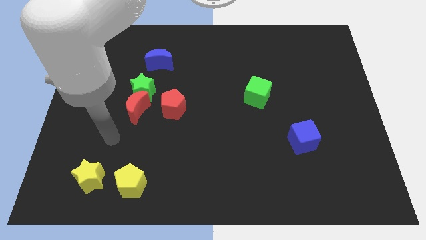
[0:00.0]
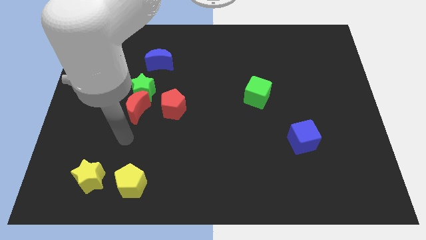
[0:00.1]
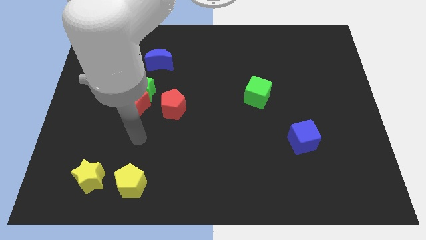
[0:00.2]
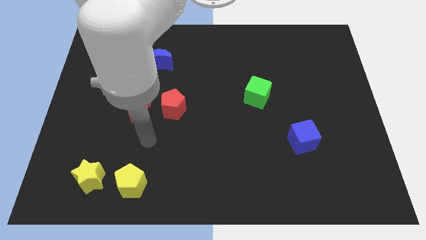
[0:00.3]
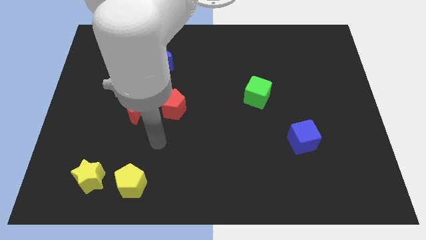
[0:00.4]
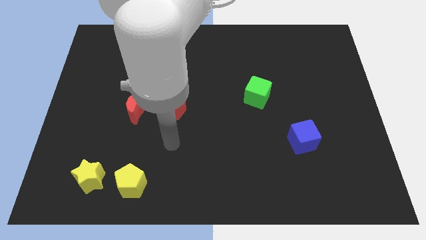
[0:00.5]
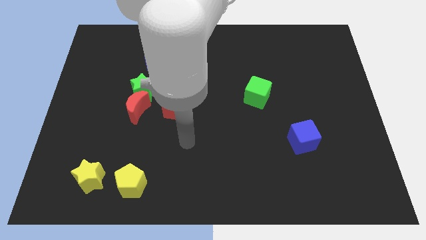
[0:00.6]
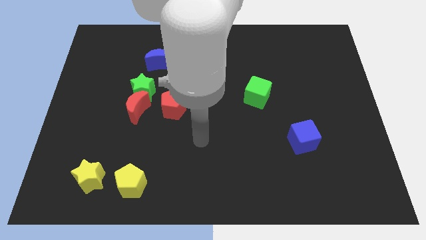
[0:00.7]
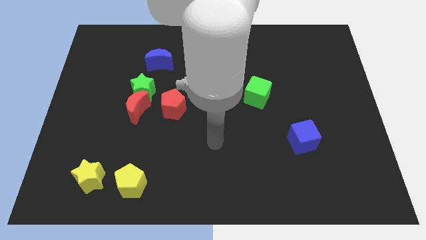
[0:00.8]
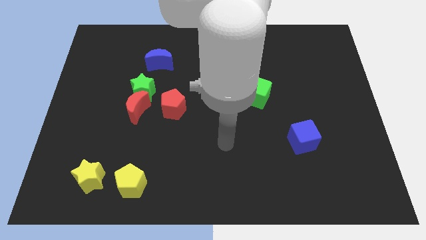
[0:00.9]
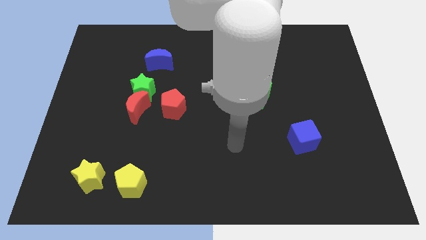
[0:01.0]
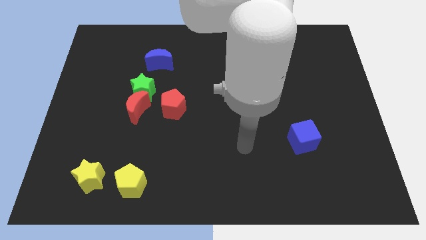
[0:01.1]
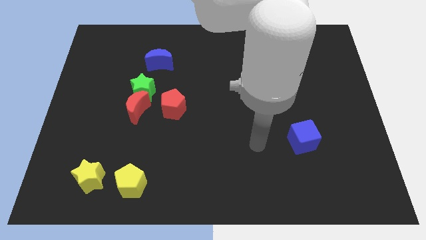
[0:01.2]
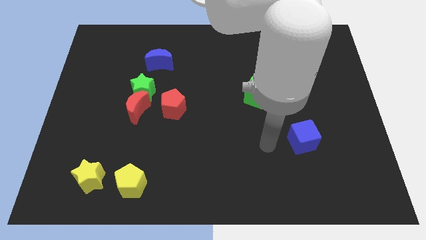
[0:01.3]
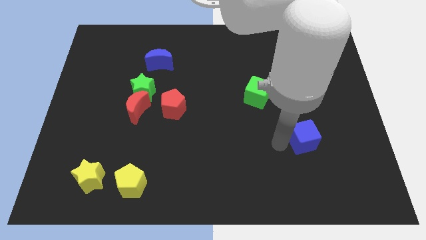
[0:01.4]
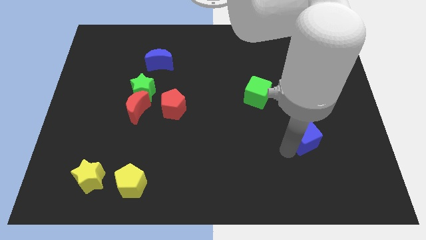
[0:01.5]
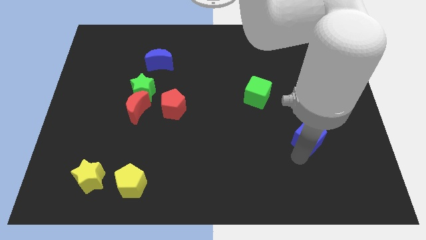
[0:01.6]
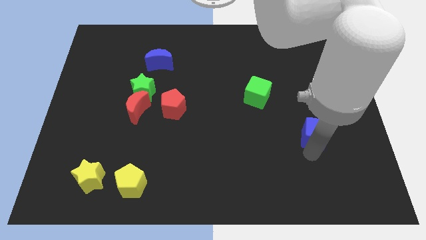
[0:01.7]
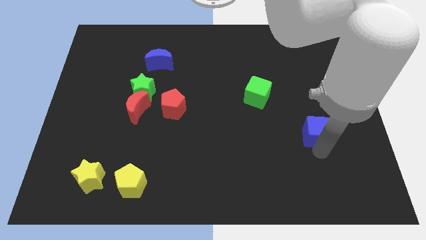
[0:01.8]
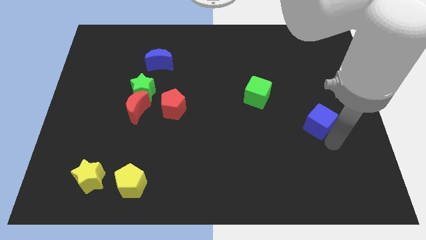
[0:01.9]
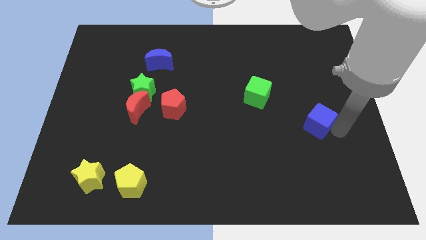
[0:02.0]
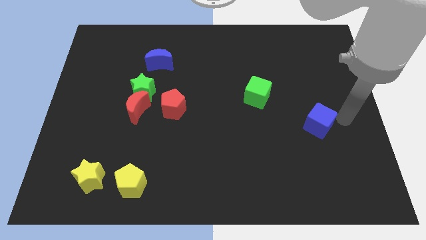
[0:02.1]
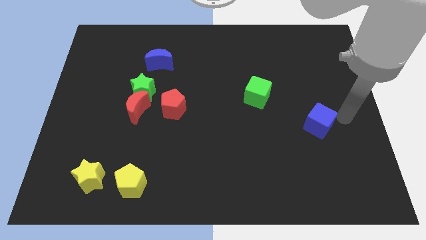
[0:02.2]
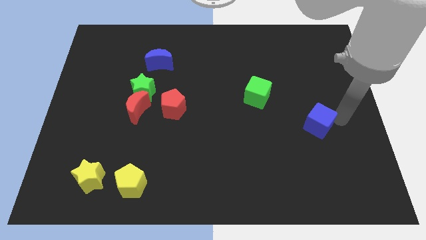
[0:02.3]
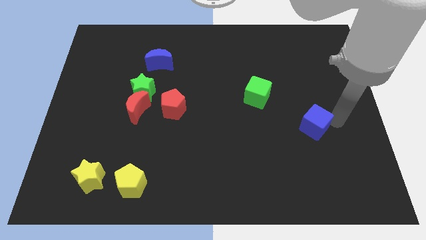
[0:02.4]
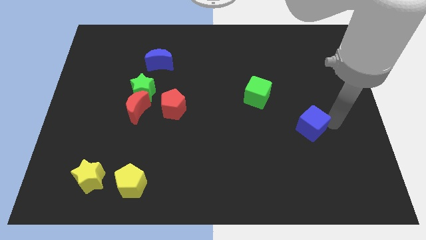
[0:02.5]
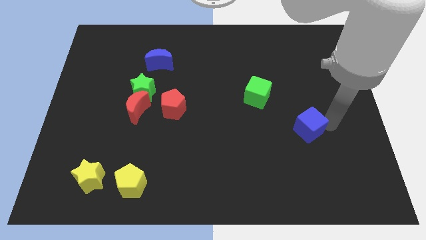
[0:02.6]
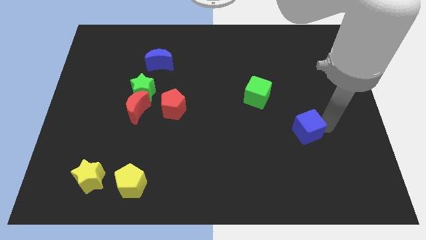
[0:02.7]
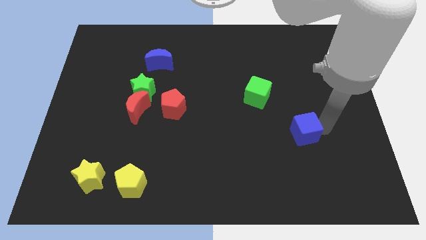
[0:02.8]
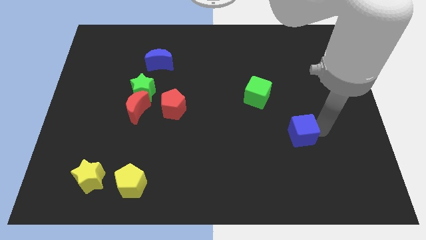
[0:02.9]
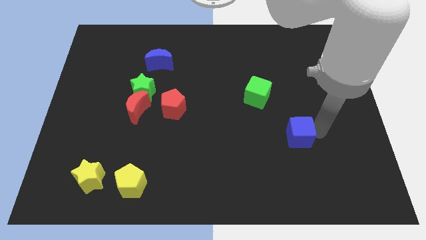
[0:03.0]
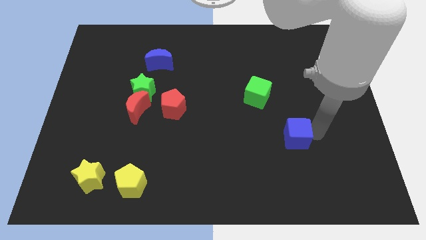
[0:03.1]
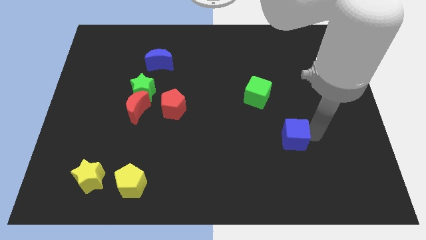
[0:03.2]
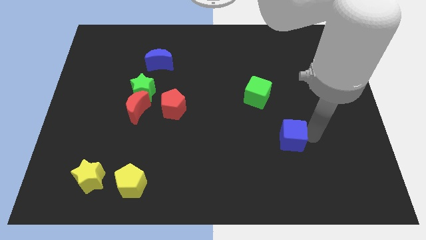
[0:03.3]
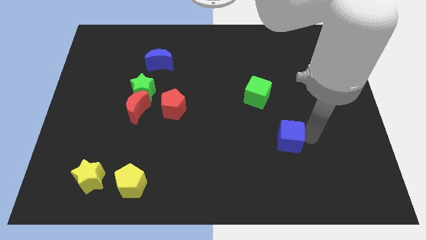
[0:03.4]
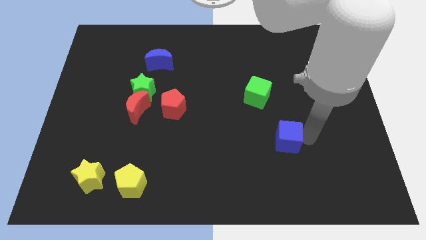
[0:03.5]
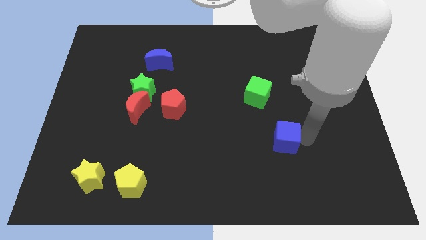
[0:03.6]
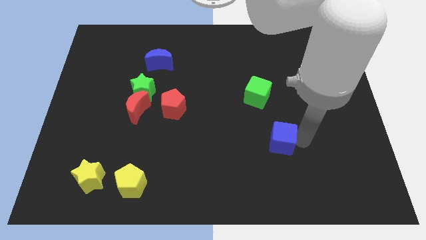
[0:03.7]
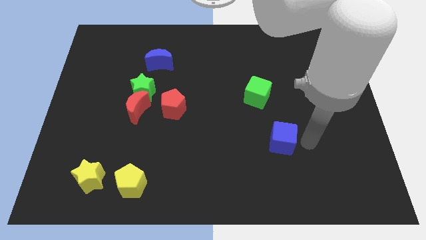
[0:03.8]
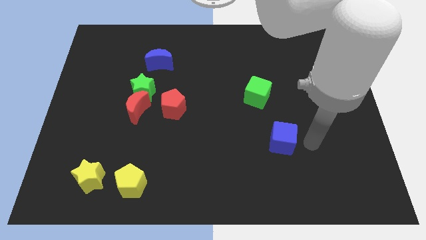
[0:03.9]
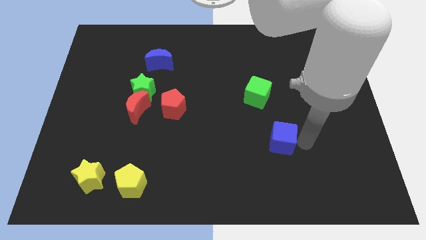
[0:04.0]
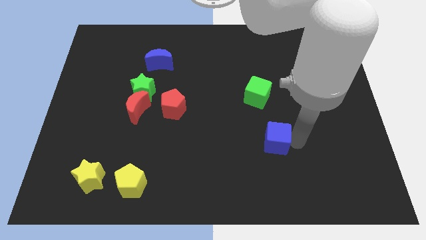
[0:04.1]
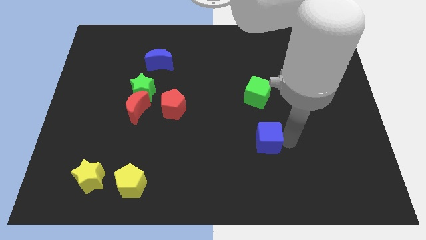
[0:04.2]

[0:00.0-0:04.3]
move the blue cube to the left slightly

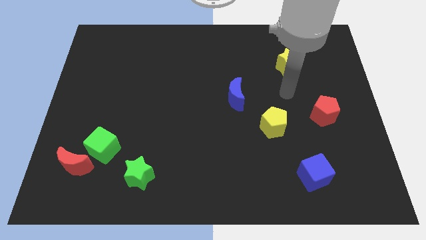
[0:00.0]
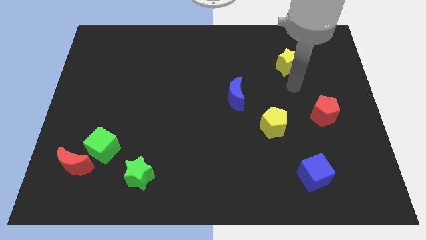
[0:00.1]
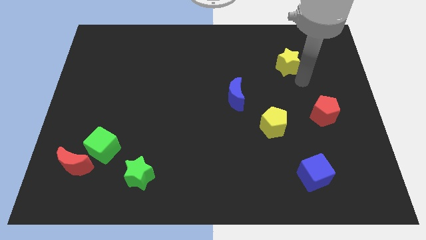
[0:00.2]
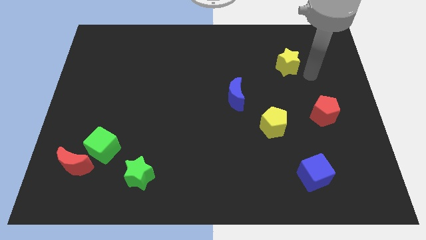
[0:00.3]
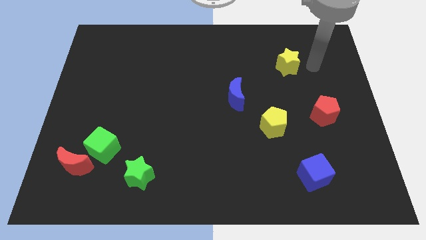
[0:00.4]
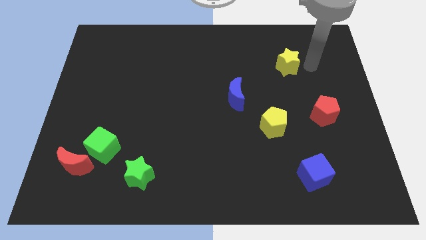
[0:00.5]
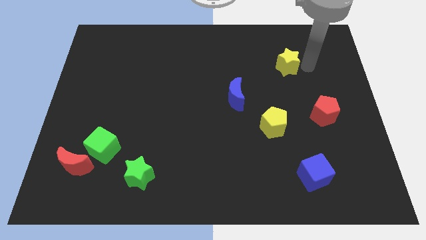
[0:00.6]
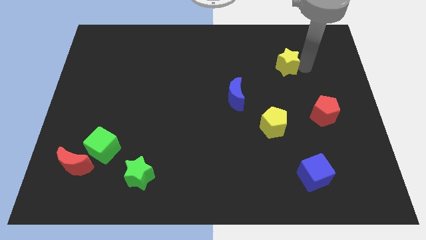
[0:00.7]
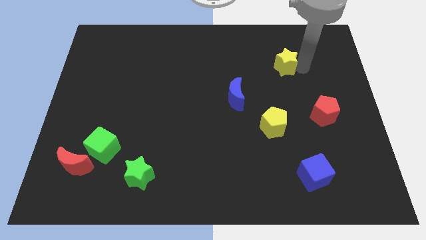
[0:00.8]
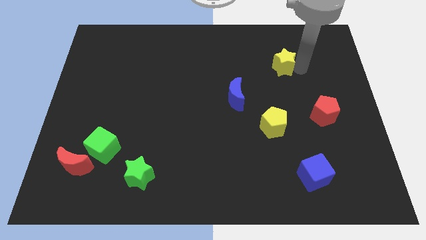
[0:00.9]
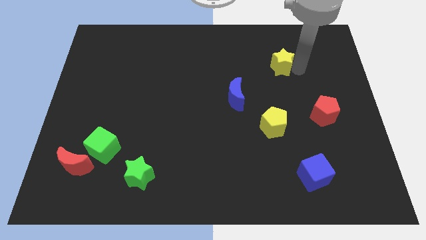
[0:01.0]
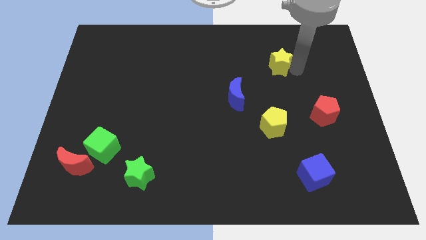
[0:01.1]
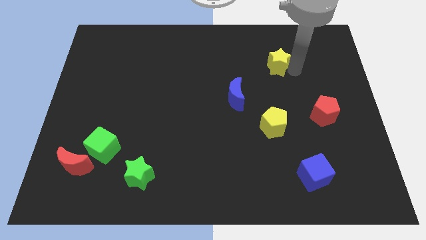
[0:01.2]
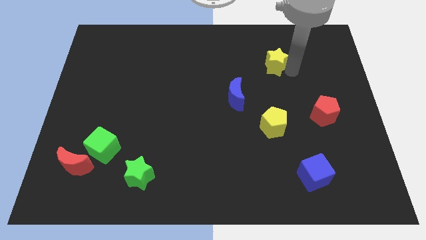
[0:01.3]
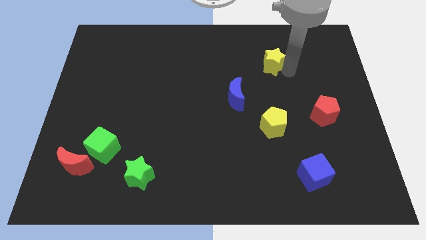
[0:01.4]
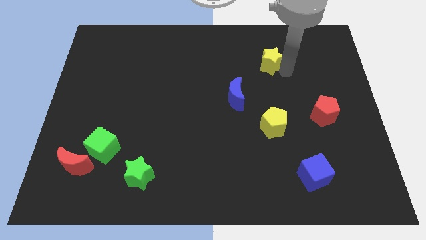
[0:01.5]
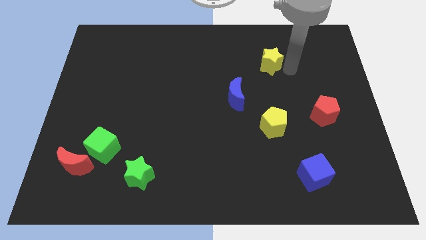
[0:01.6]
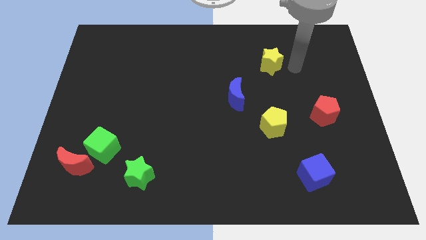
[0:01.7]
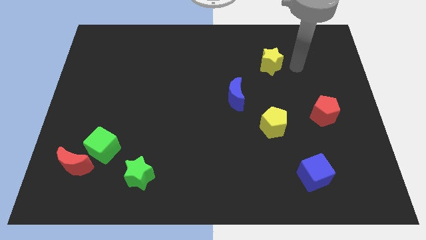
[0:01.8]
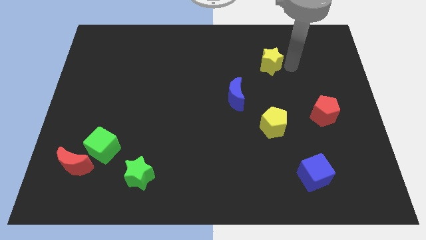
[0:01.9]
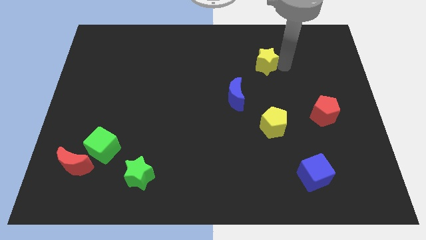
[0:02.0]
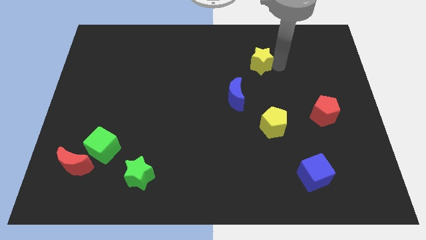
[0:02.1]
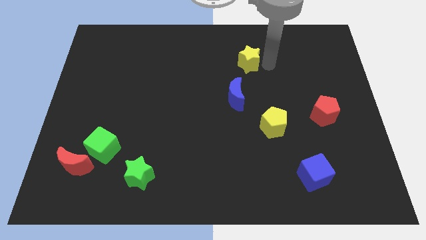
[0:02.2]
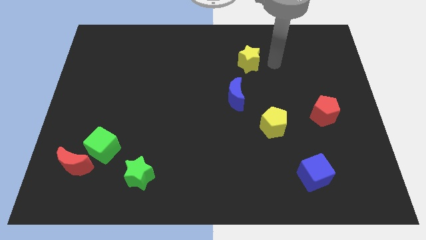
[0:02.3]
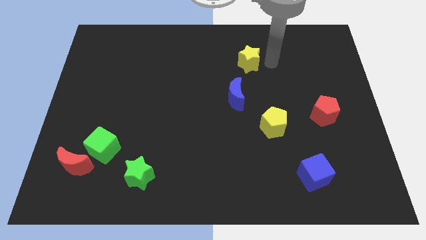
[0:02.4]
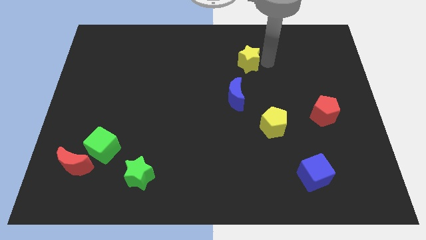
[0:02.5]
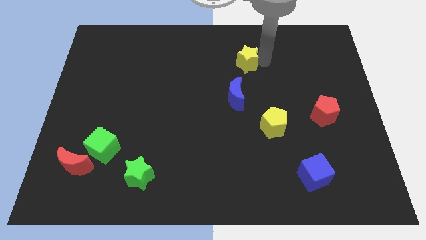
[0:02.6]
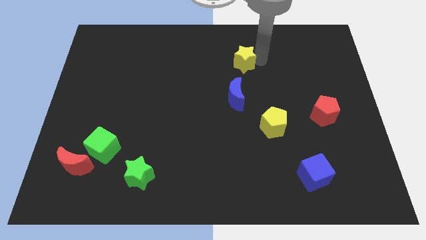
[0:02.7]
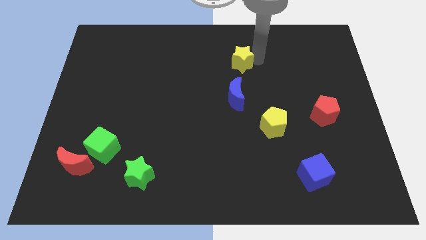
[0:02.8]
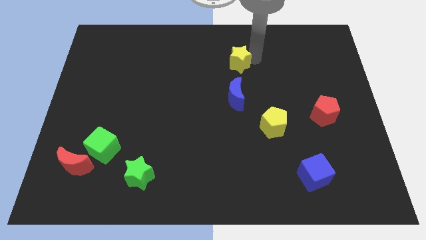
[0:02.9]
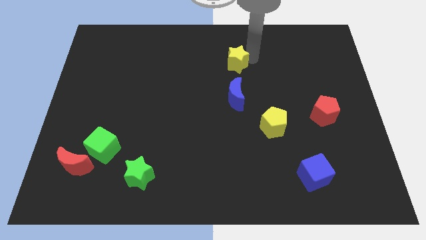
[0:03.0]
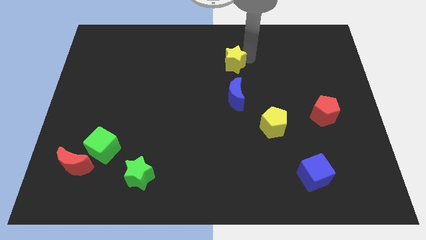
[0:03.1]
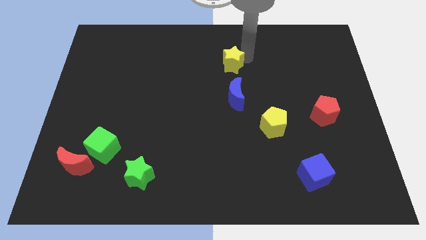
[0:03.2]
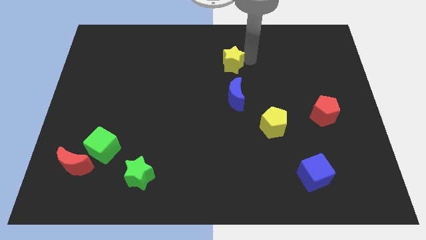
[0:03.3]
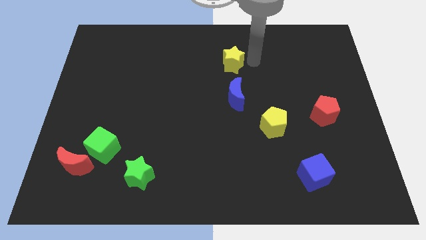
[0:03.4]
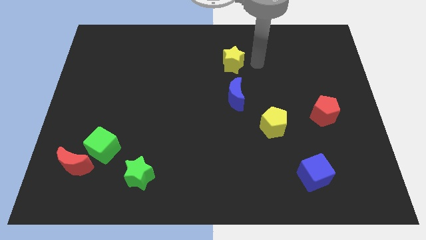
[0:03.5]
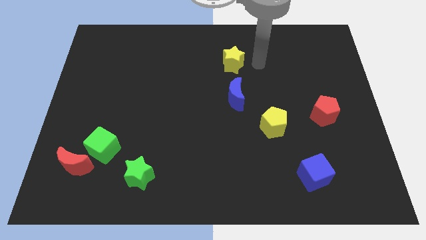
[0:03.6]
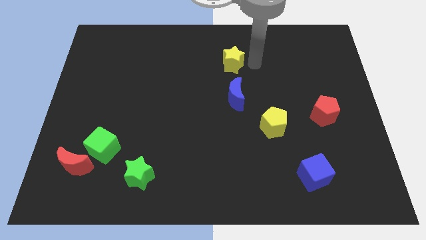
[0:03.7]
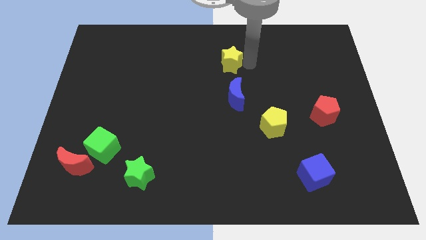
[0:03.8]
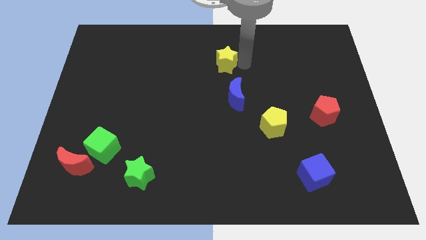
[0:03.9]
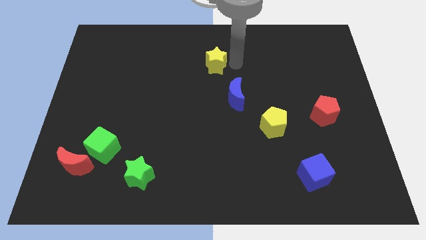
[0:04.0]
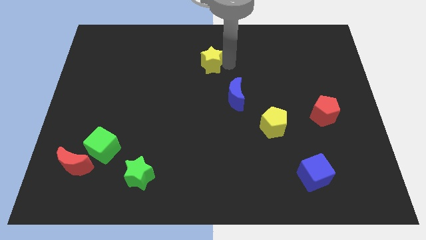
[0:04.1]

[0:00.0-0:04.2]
push the yellow star left
